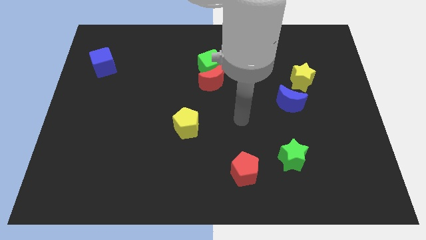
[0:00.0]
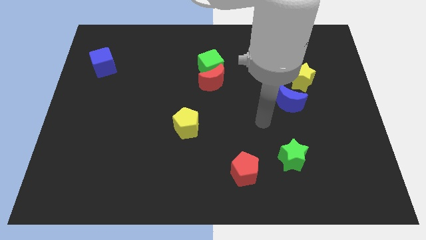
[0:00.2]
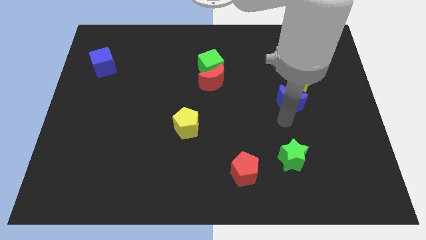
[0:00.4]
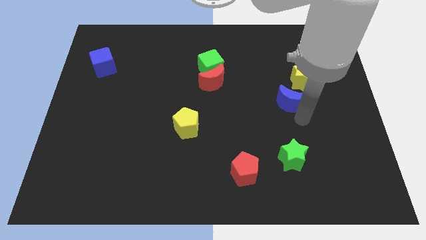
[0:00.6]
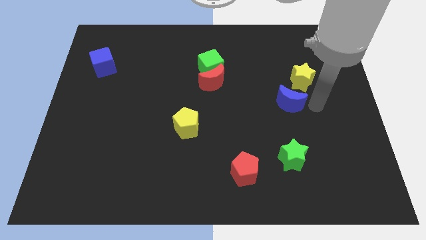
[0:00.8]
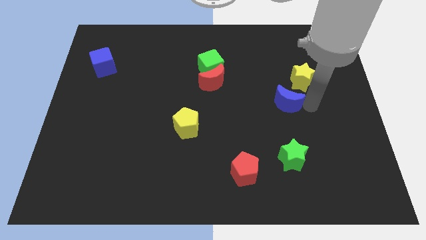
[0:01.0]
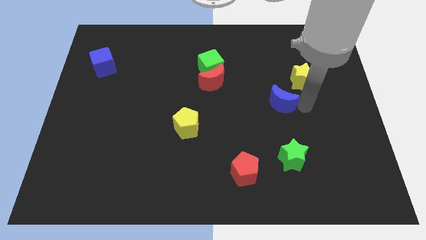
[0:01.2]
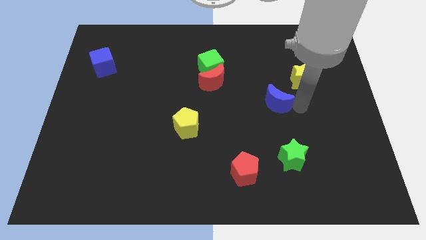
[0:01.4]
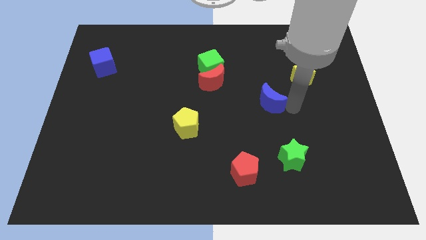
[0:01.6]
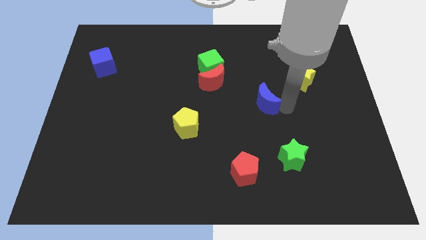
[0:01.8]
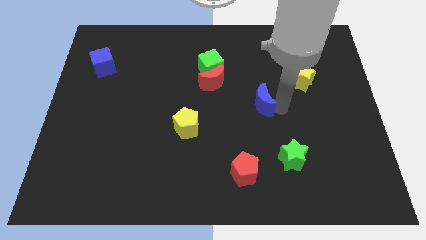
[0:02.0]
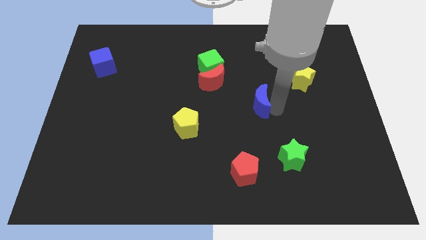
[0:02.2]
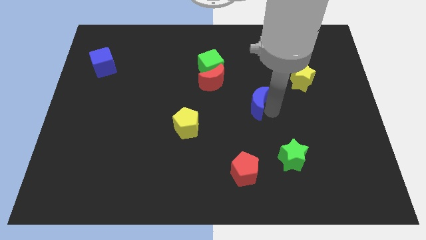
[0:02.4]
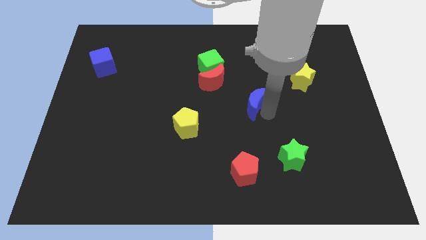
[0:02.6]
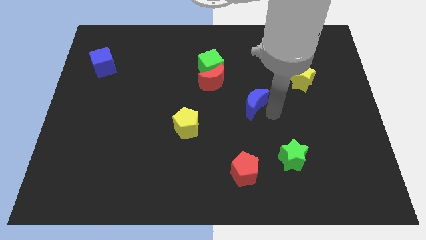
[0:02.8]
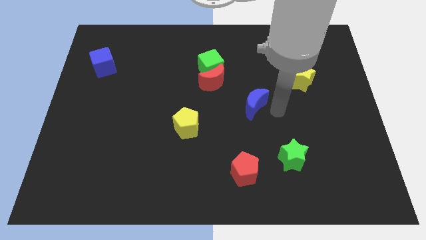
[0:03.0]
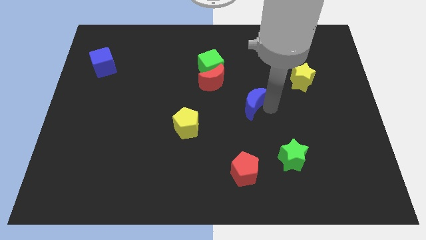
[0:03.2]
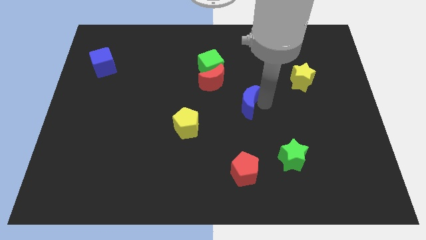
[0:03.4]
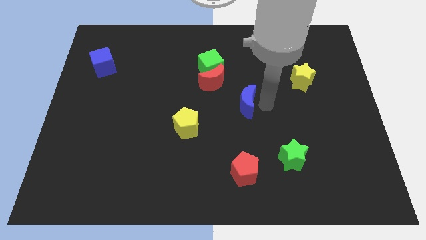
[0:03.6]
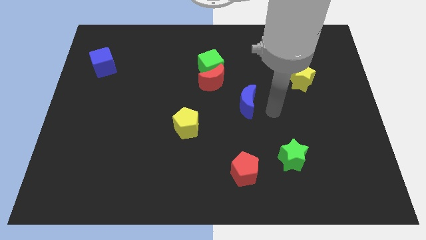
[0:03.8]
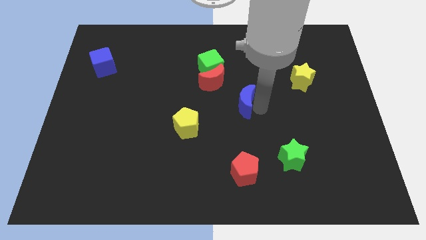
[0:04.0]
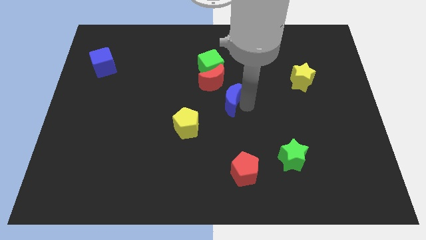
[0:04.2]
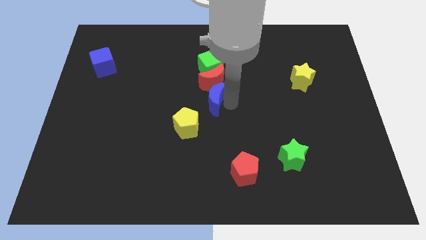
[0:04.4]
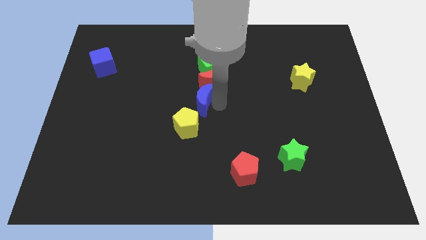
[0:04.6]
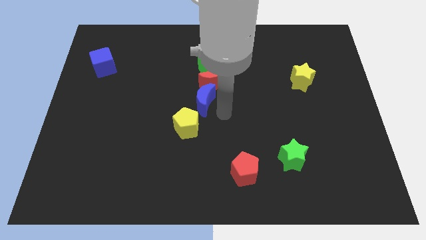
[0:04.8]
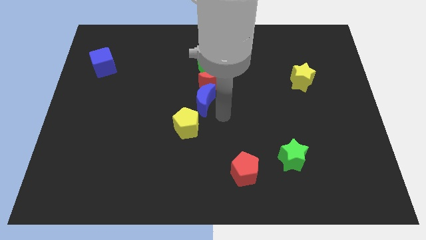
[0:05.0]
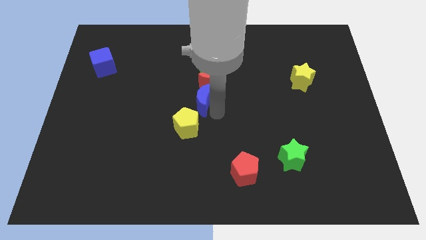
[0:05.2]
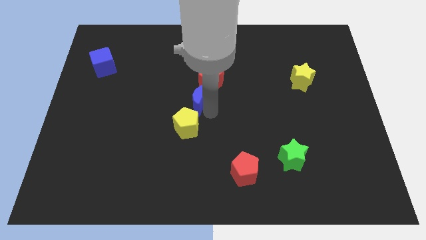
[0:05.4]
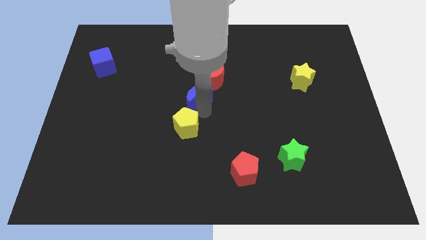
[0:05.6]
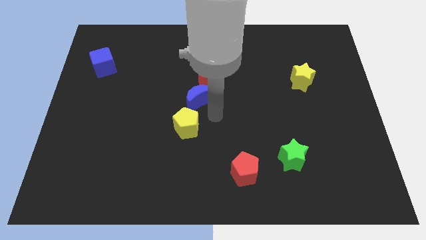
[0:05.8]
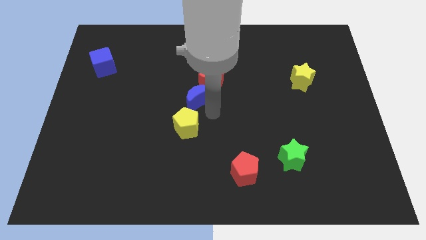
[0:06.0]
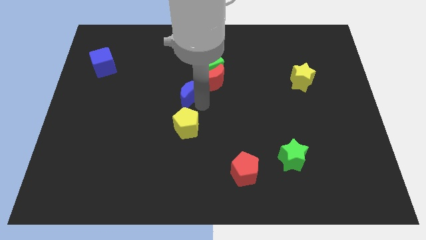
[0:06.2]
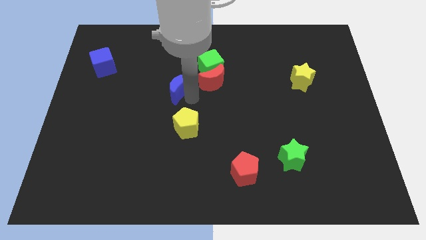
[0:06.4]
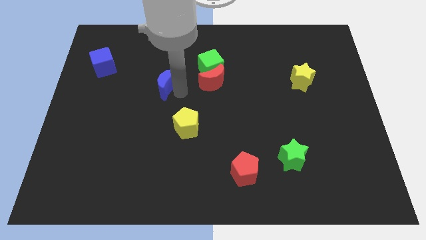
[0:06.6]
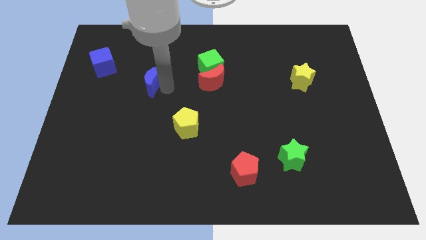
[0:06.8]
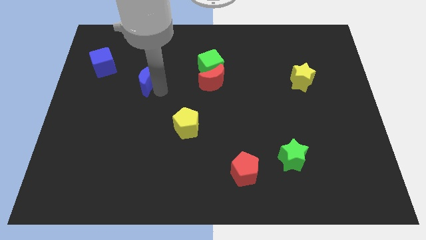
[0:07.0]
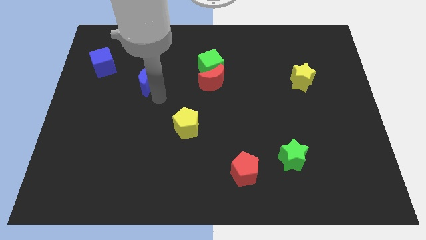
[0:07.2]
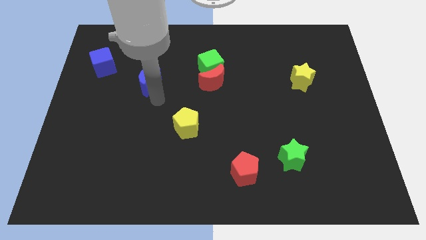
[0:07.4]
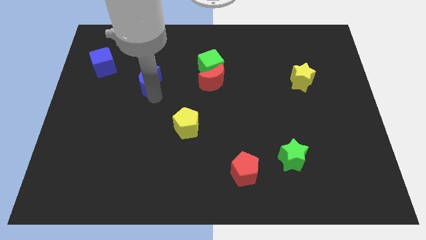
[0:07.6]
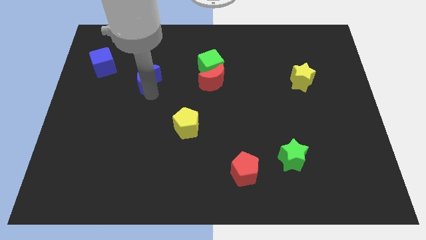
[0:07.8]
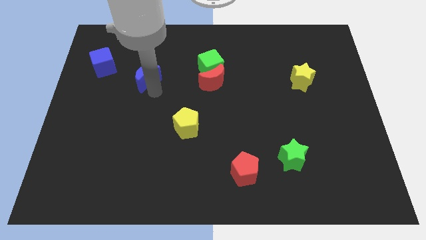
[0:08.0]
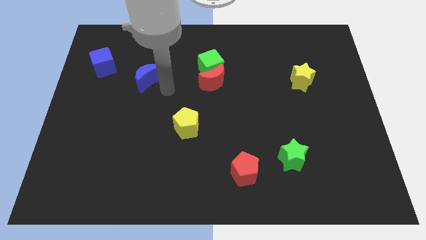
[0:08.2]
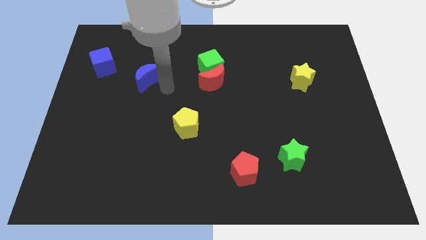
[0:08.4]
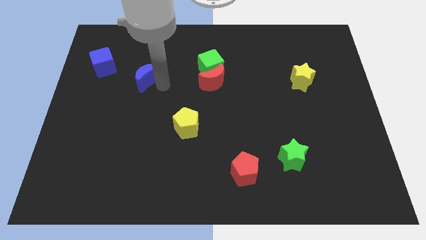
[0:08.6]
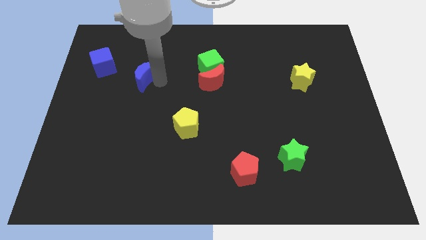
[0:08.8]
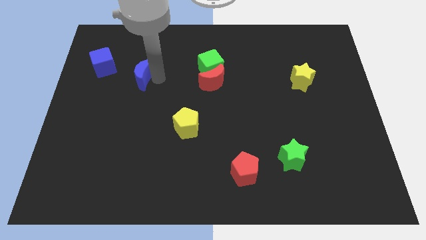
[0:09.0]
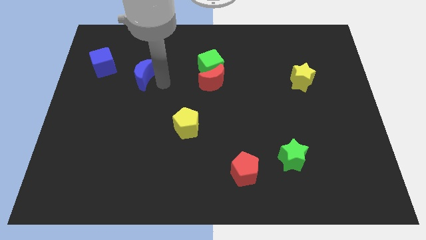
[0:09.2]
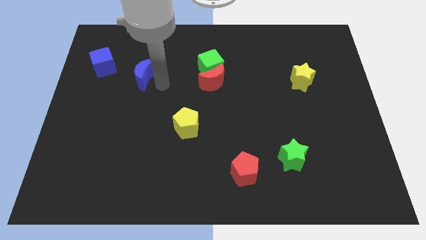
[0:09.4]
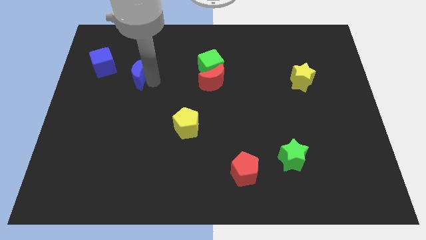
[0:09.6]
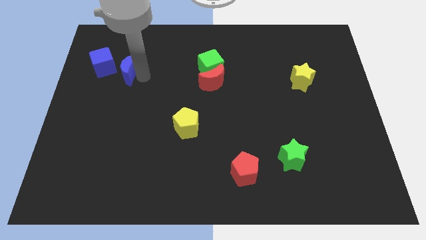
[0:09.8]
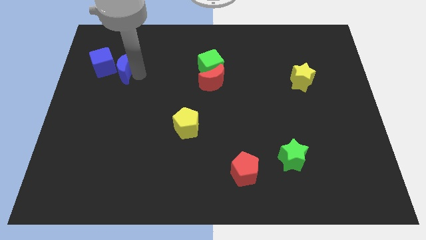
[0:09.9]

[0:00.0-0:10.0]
push the blue moon close to the blue cube

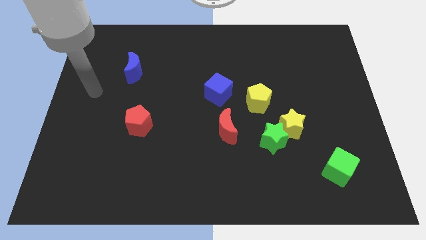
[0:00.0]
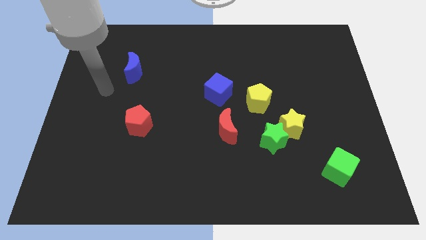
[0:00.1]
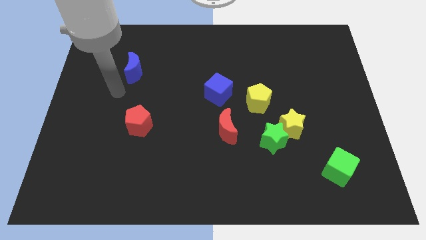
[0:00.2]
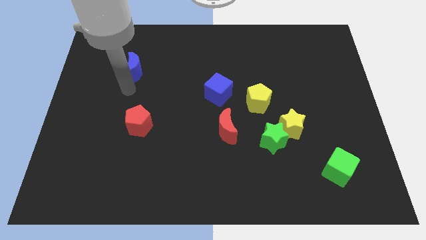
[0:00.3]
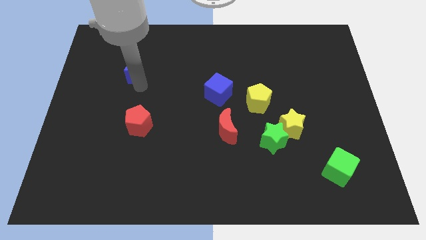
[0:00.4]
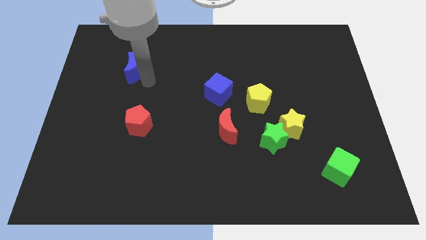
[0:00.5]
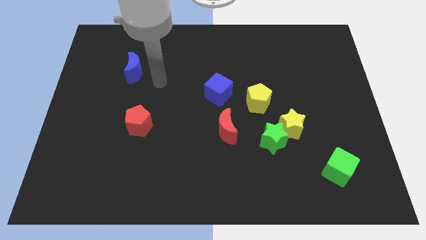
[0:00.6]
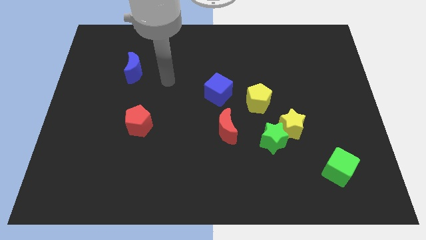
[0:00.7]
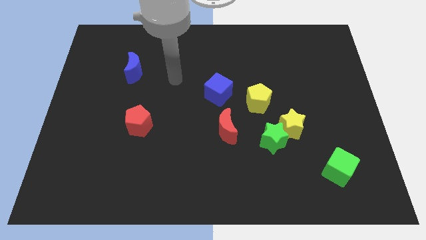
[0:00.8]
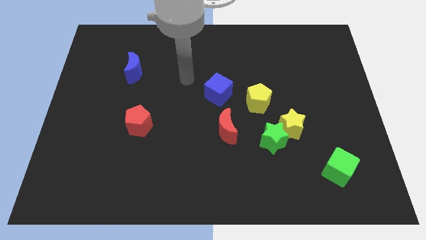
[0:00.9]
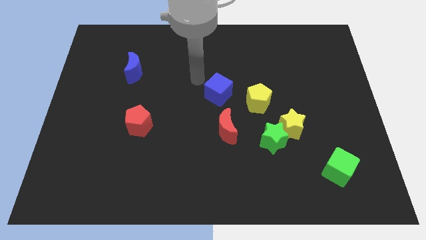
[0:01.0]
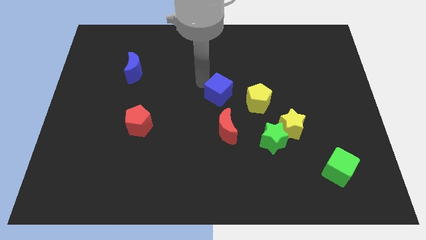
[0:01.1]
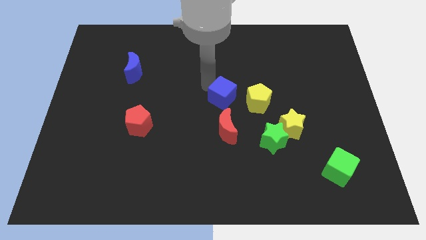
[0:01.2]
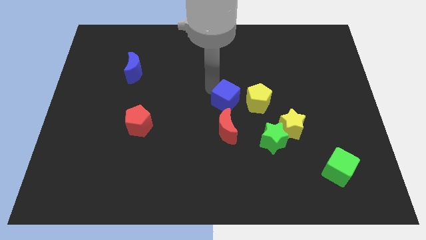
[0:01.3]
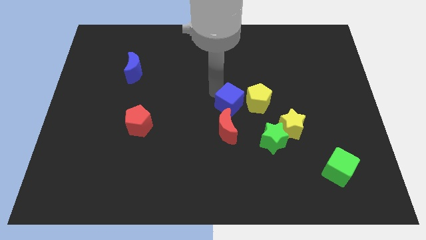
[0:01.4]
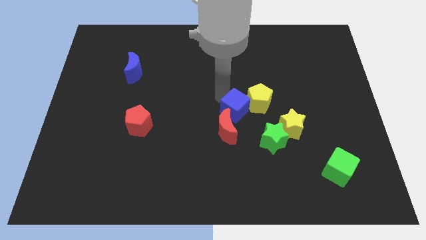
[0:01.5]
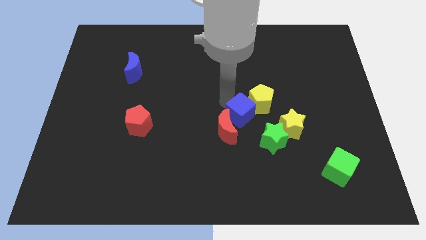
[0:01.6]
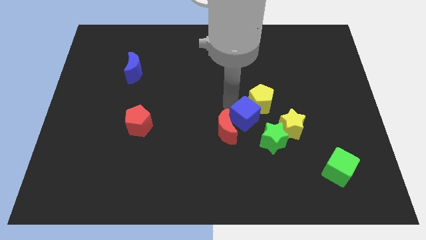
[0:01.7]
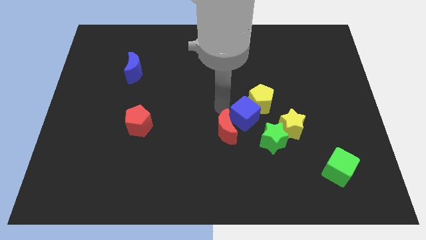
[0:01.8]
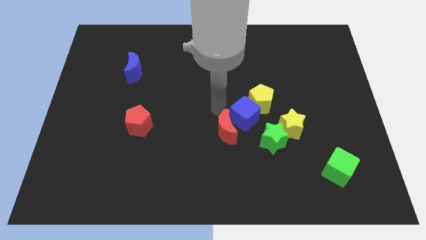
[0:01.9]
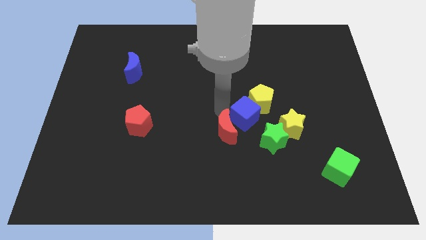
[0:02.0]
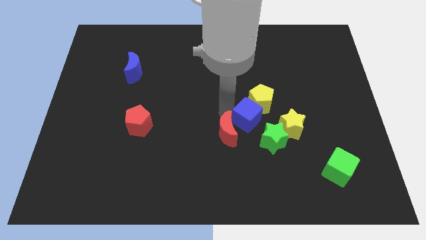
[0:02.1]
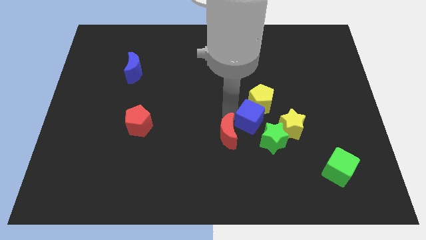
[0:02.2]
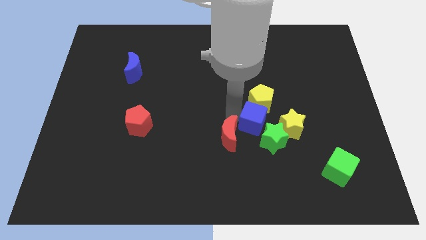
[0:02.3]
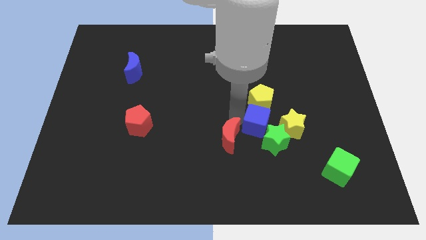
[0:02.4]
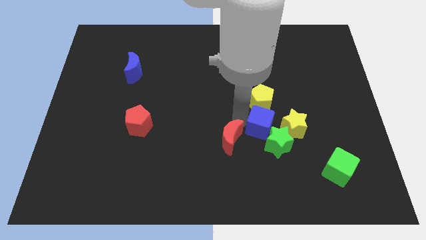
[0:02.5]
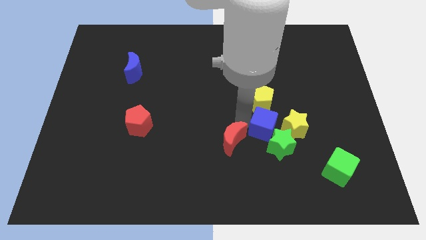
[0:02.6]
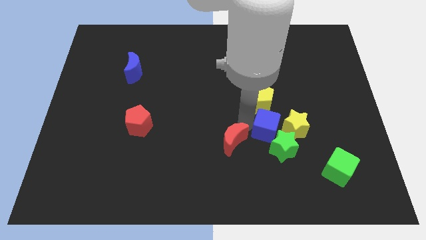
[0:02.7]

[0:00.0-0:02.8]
slide the blue cube towards the yellow star

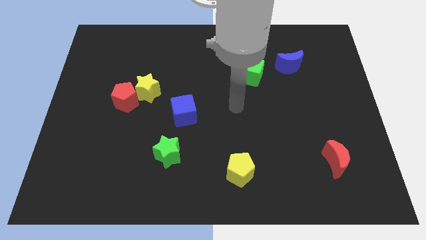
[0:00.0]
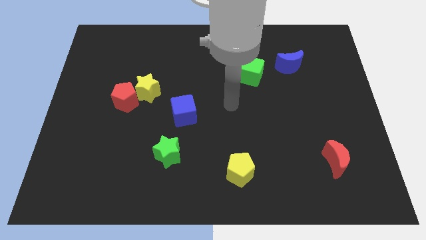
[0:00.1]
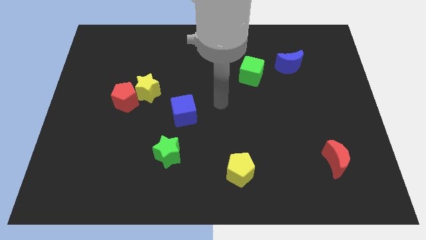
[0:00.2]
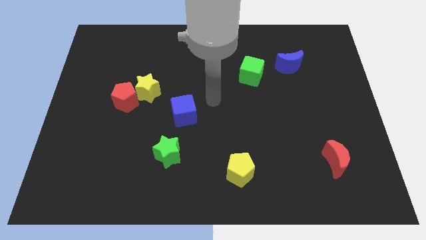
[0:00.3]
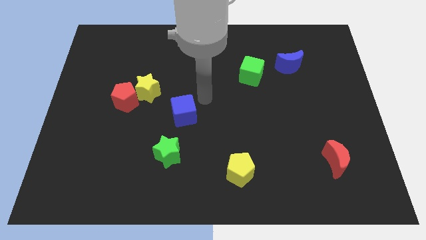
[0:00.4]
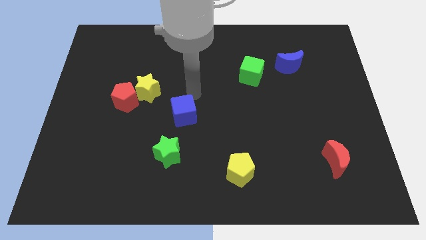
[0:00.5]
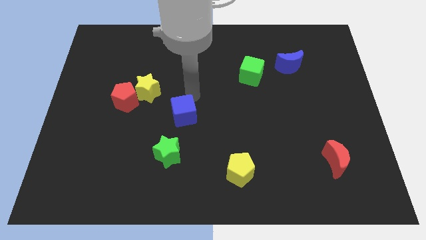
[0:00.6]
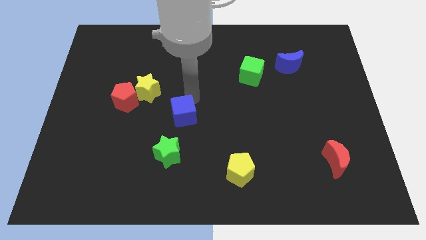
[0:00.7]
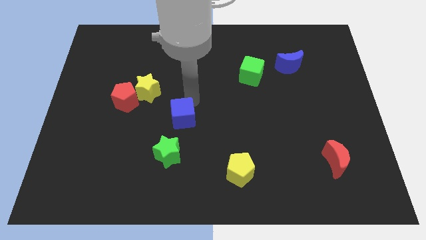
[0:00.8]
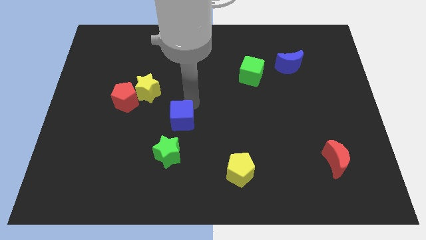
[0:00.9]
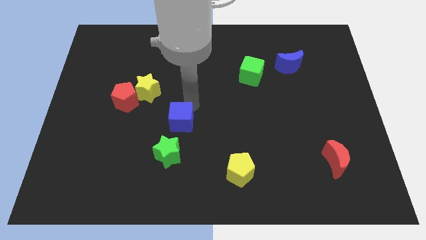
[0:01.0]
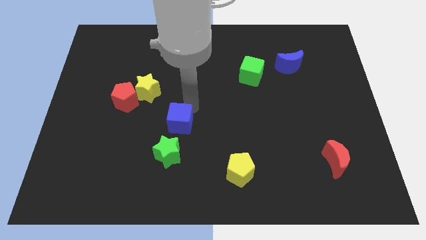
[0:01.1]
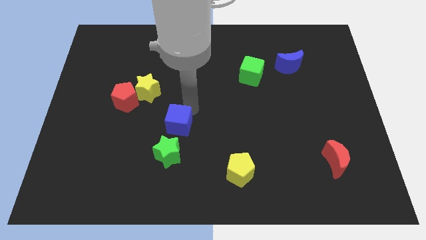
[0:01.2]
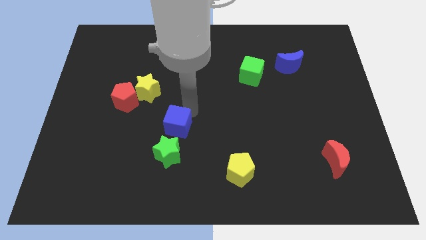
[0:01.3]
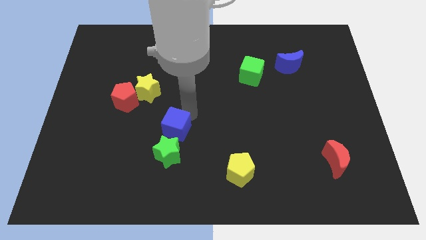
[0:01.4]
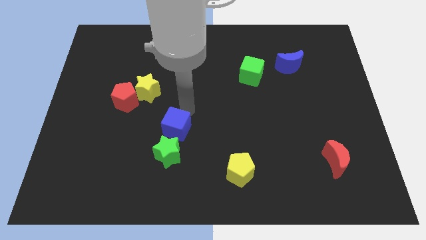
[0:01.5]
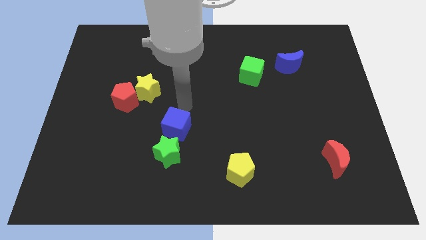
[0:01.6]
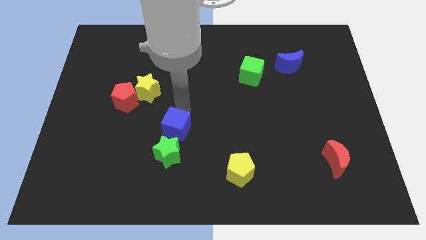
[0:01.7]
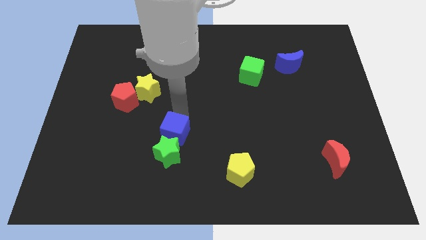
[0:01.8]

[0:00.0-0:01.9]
put the blue cube close to the green star
